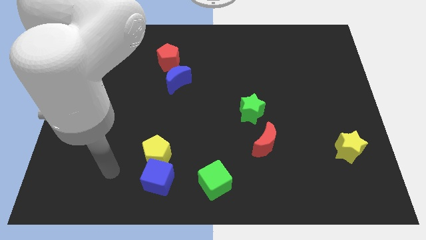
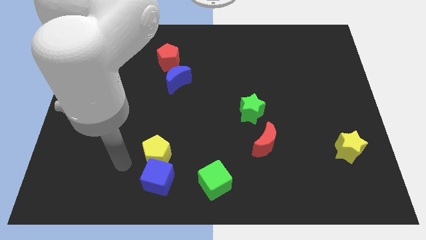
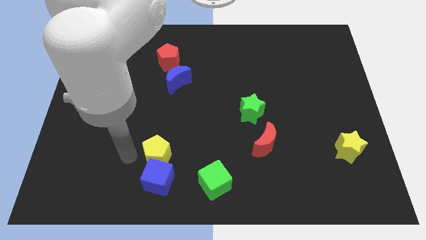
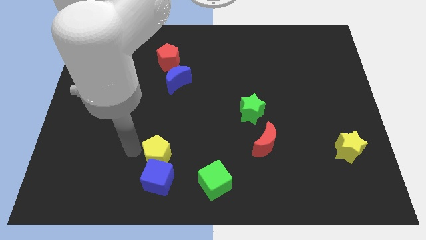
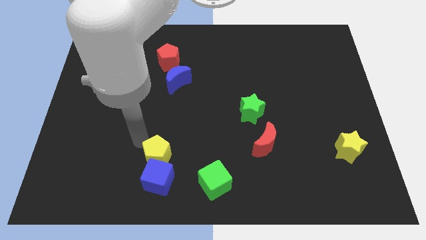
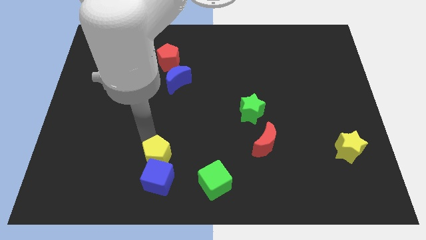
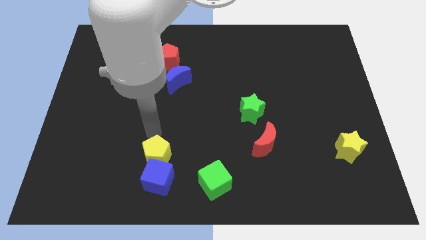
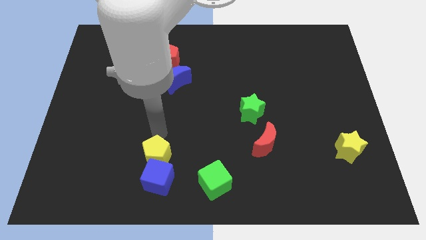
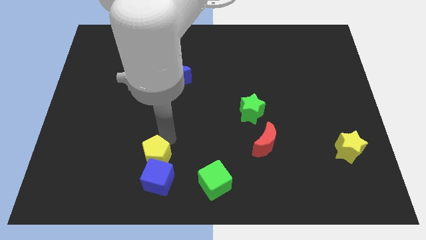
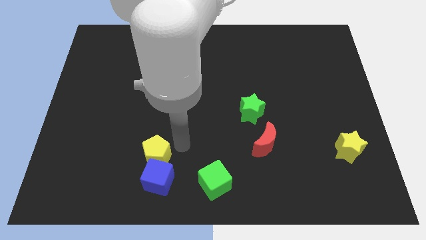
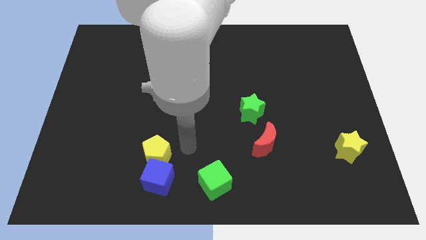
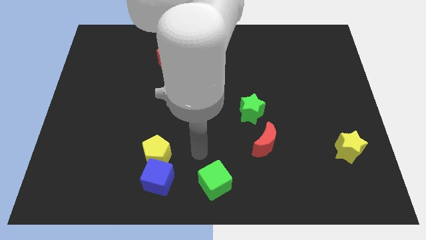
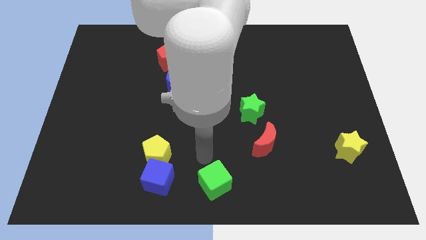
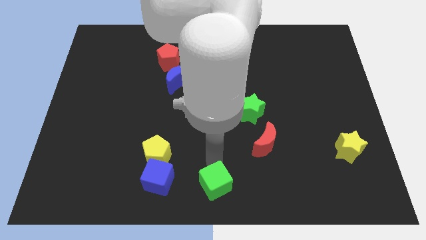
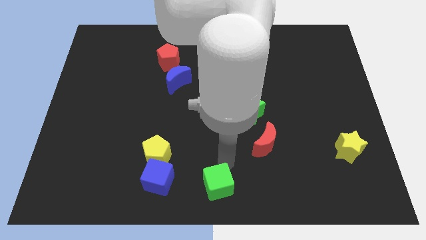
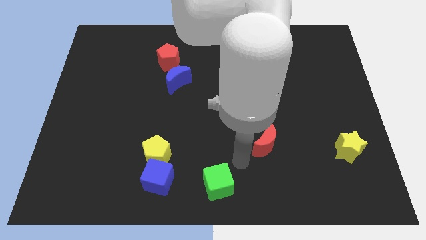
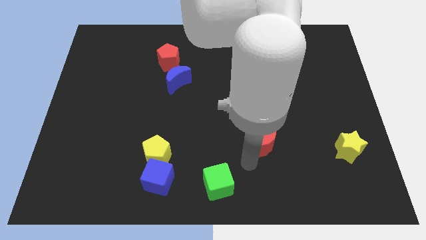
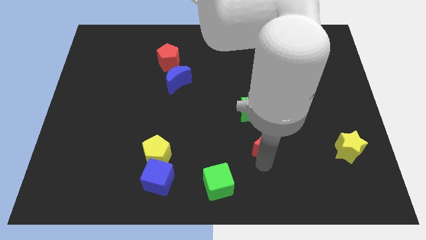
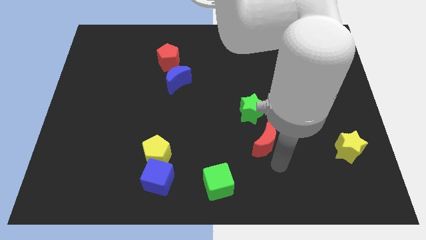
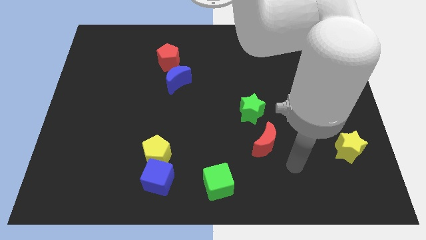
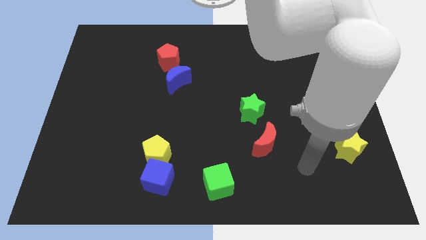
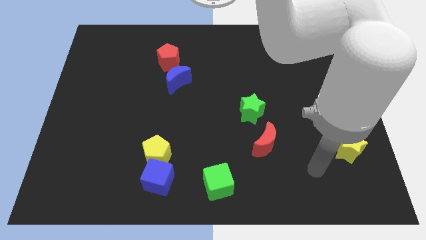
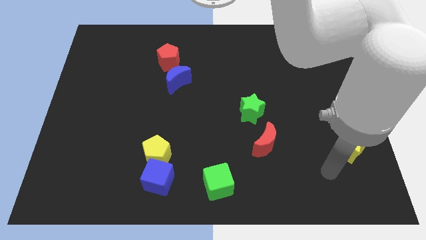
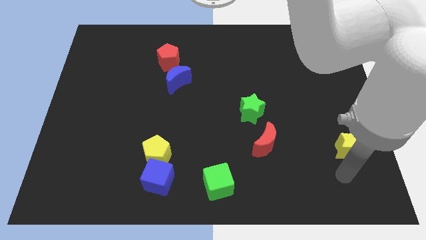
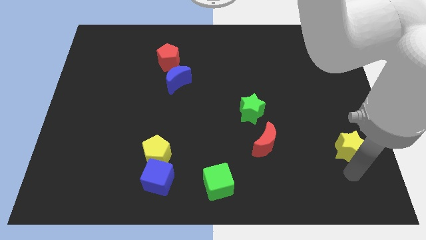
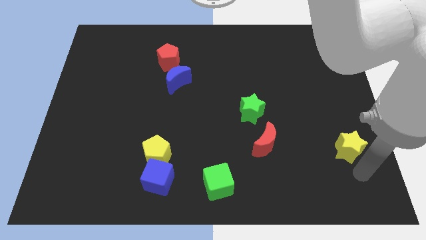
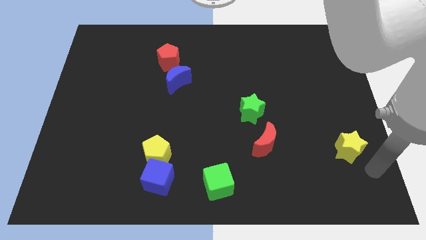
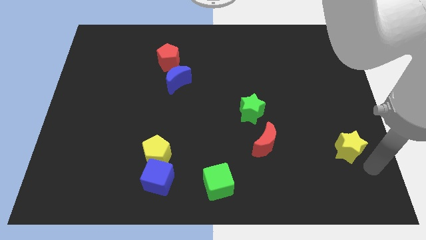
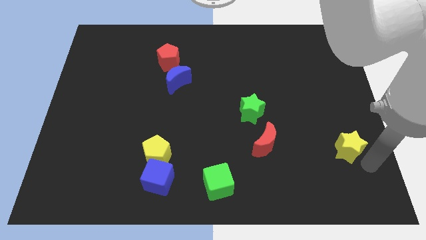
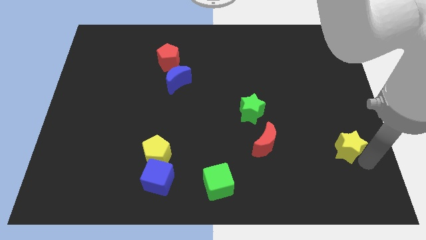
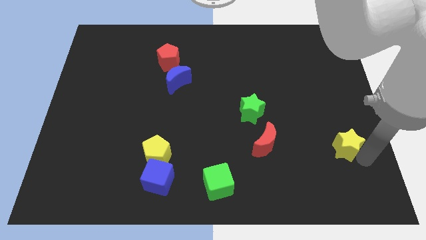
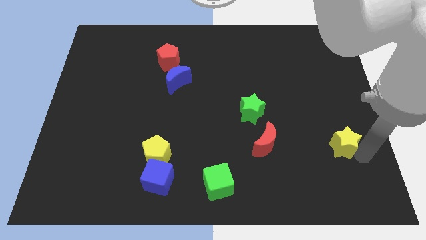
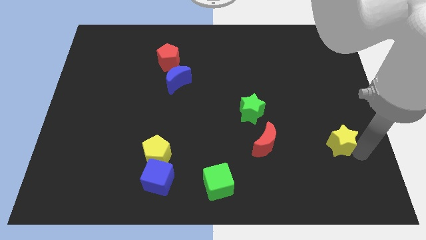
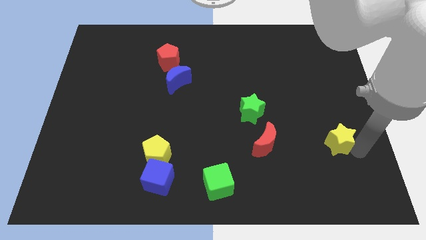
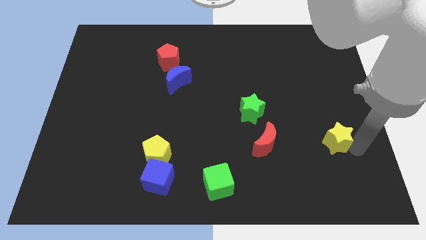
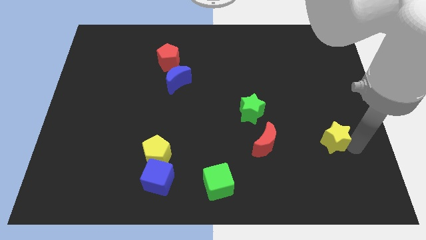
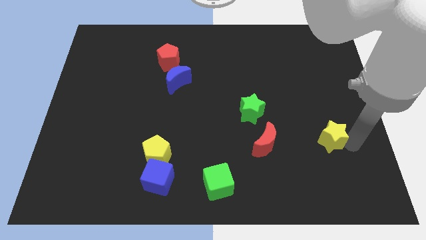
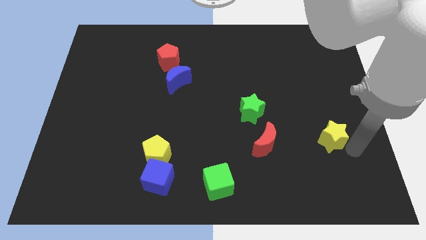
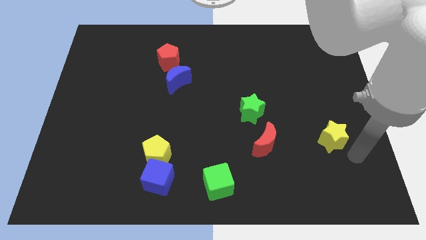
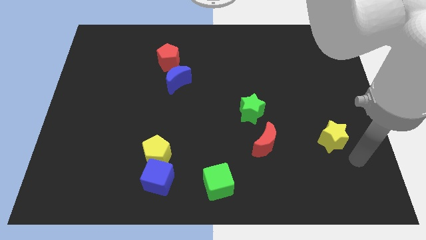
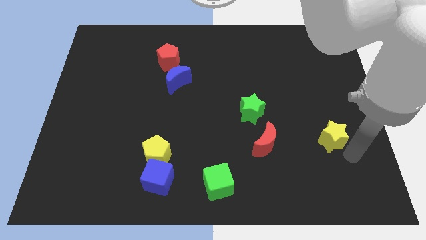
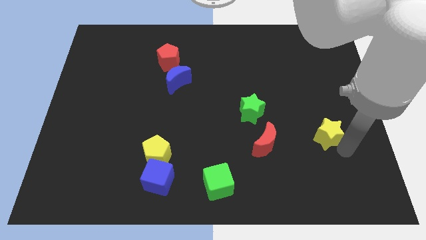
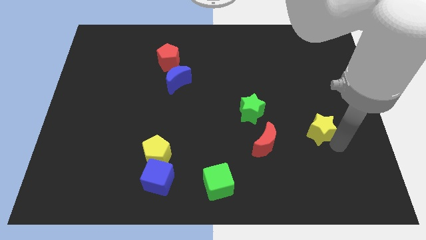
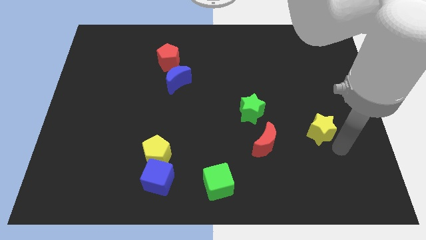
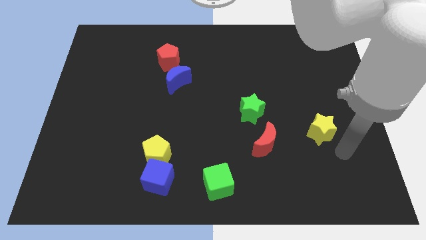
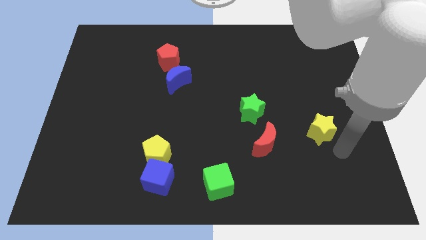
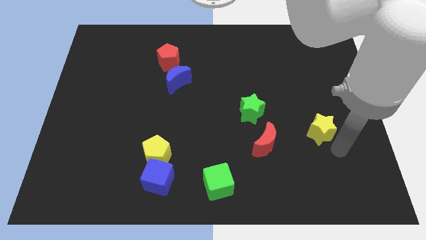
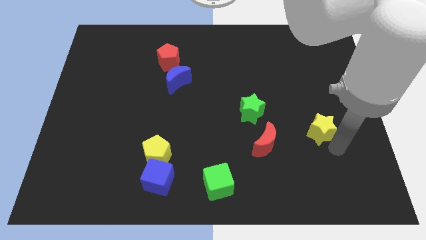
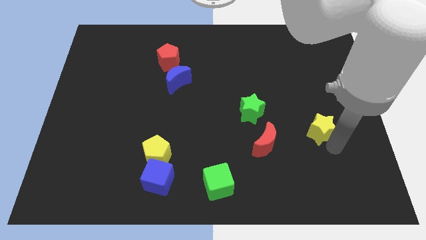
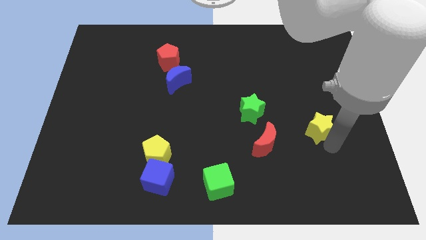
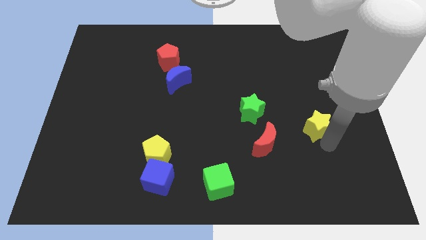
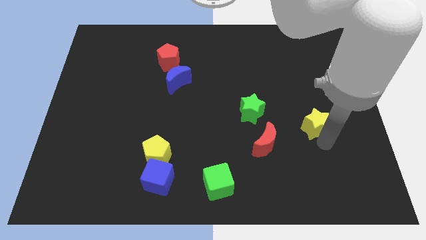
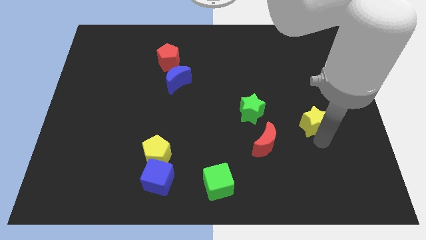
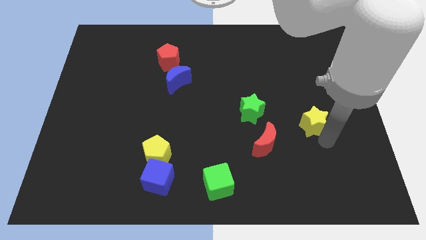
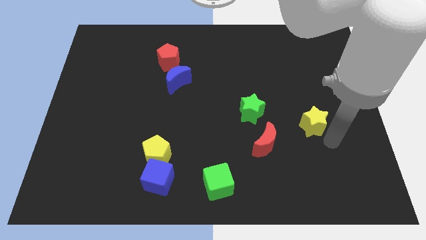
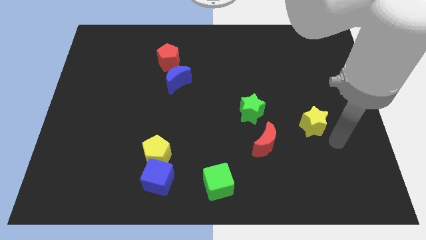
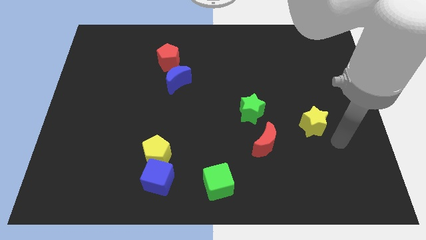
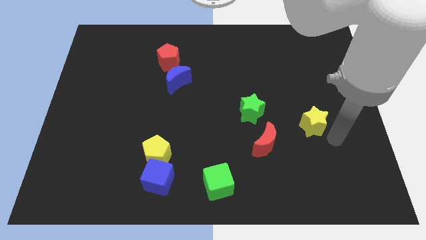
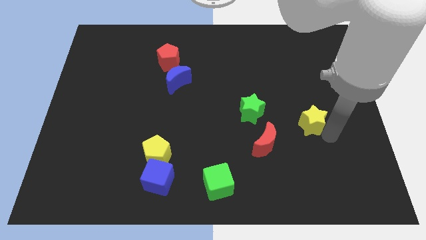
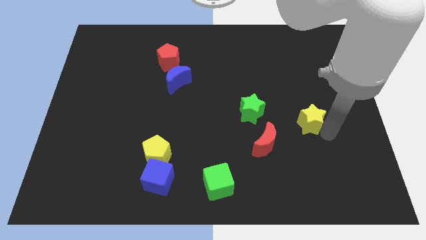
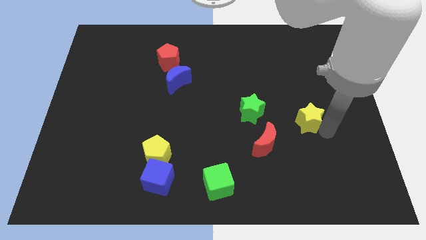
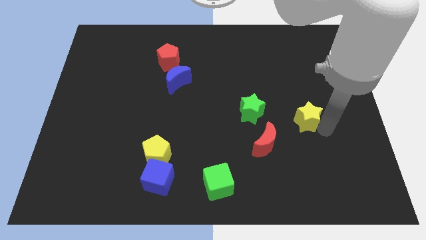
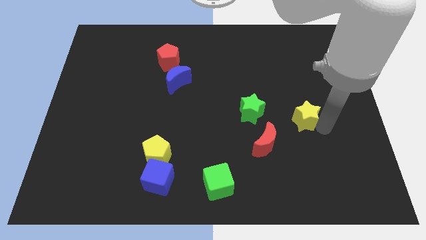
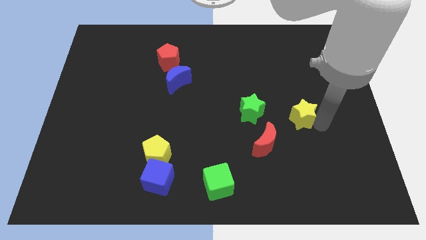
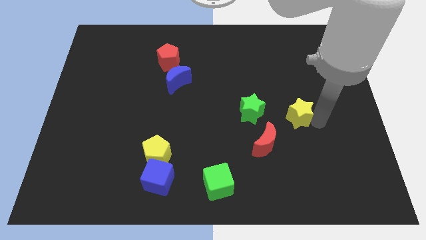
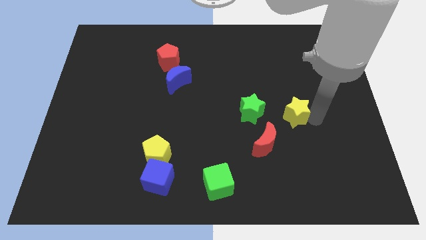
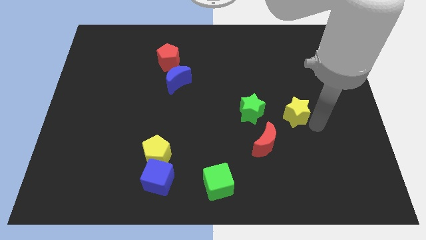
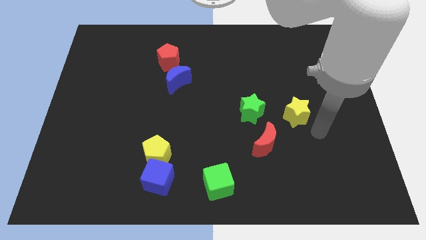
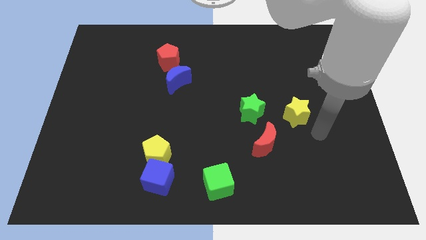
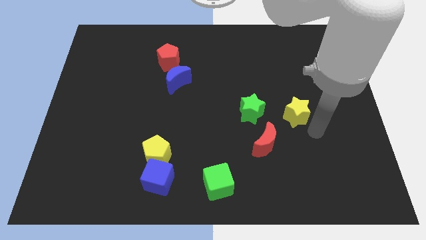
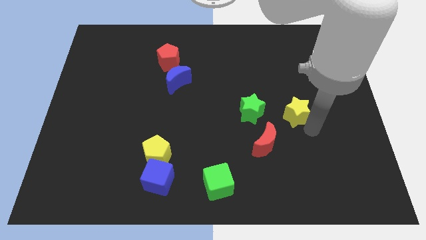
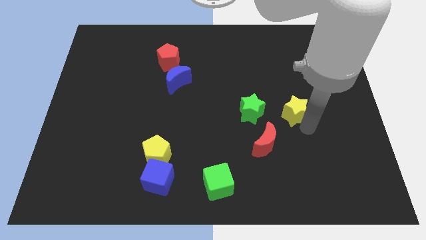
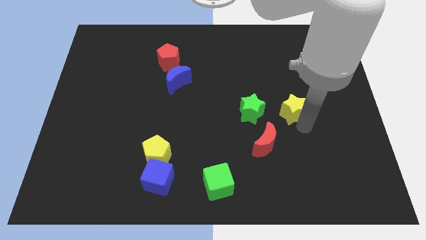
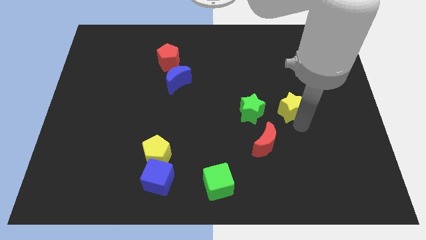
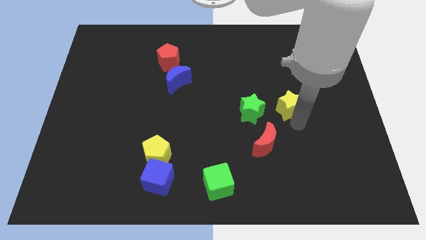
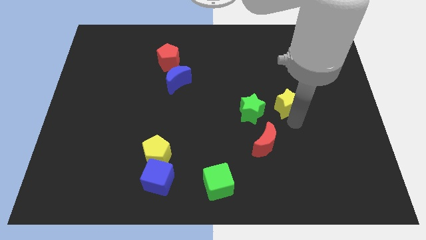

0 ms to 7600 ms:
push the yellow star diagonally up and to the right of the green star

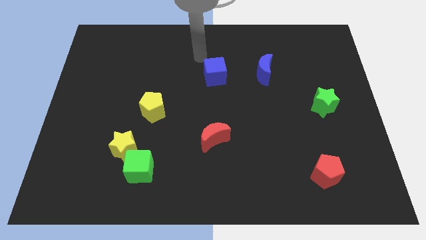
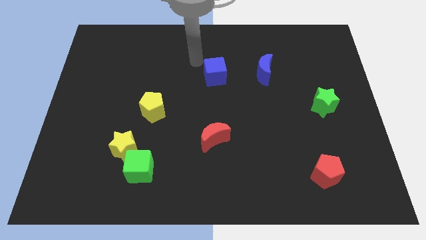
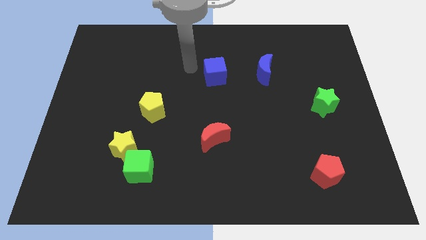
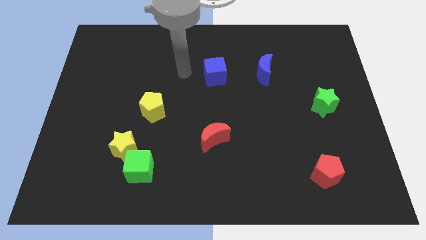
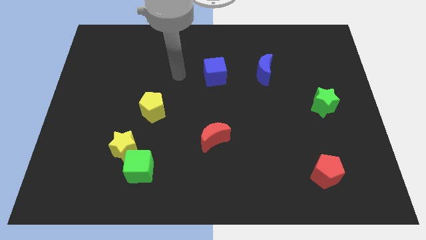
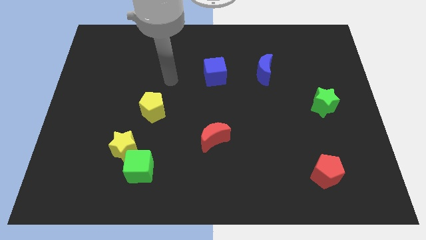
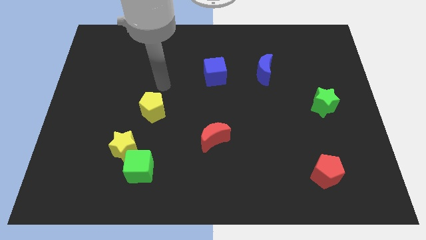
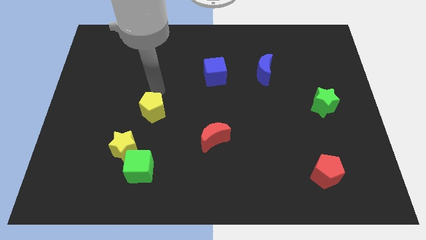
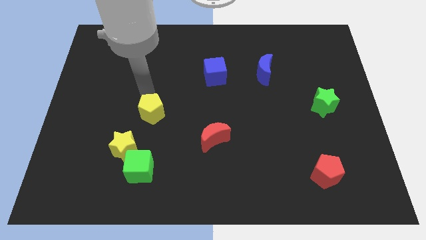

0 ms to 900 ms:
push the yellow star to the bottom of the yellow pentagon
